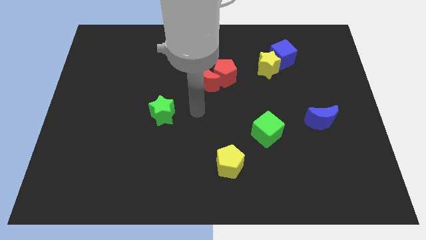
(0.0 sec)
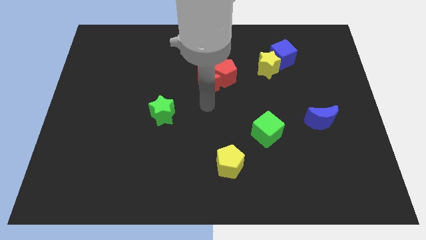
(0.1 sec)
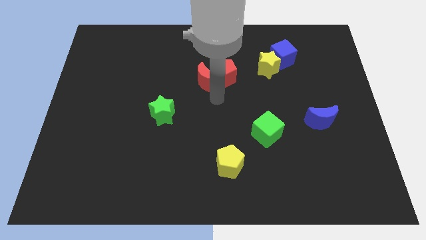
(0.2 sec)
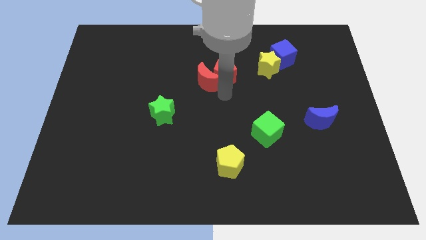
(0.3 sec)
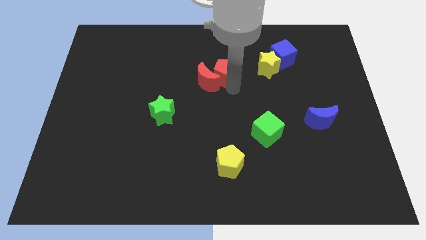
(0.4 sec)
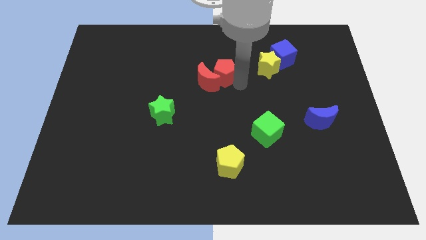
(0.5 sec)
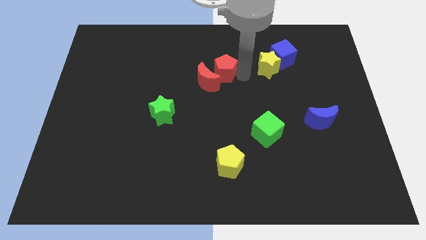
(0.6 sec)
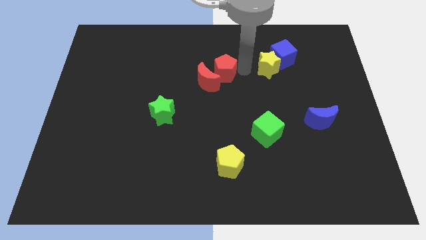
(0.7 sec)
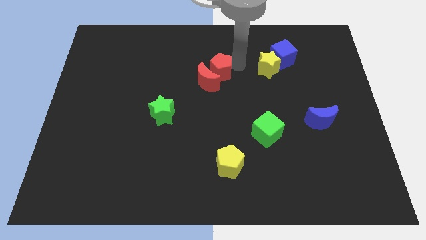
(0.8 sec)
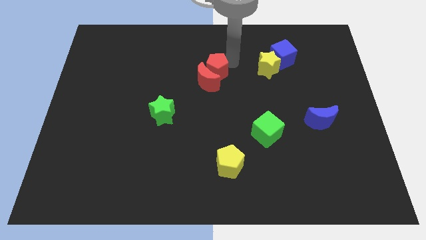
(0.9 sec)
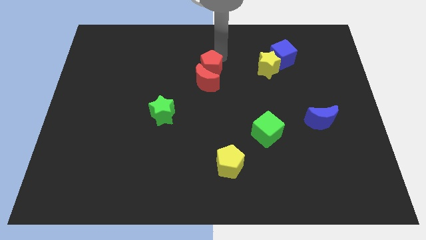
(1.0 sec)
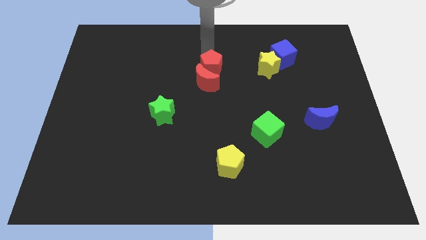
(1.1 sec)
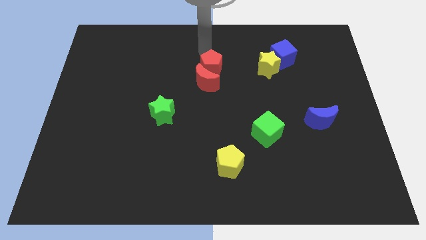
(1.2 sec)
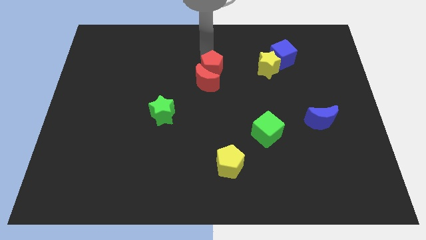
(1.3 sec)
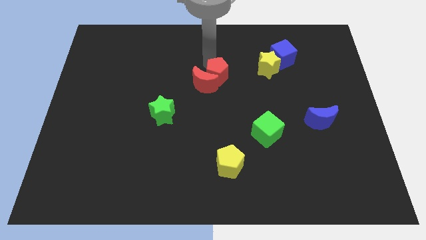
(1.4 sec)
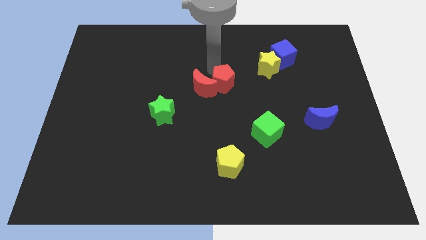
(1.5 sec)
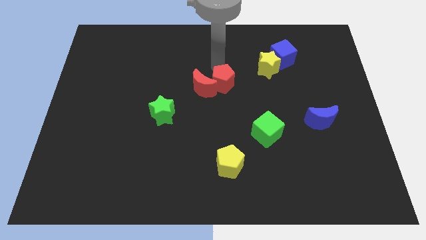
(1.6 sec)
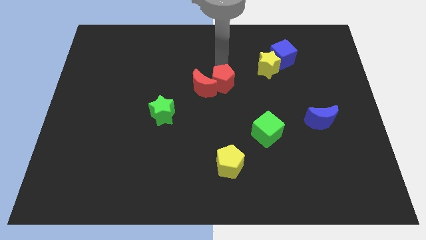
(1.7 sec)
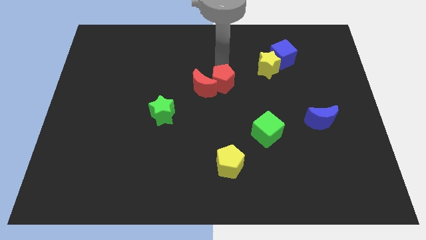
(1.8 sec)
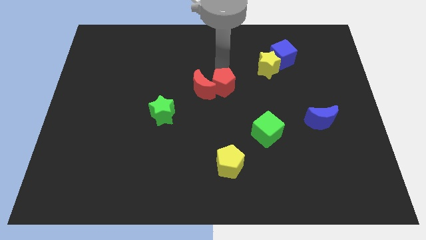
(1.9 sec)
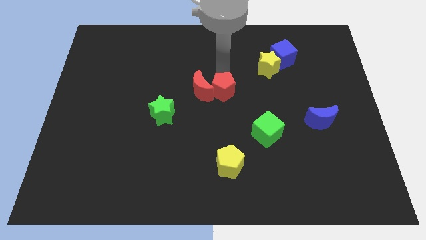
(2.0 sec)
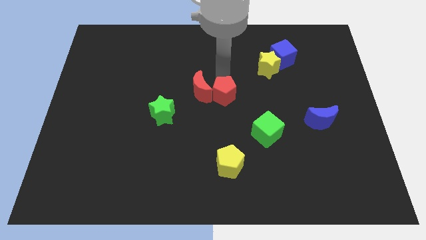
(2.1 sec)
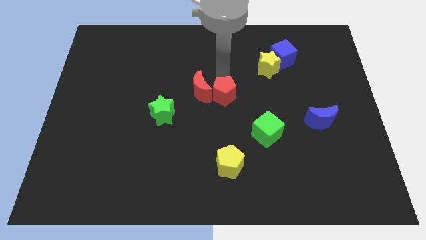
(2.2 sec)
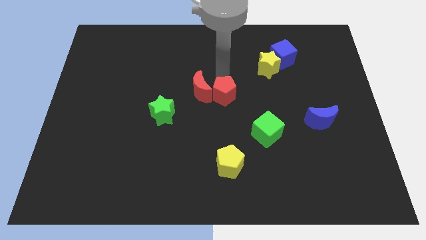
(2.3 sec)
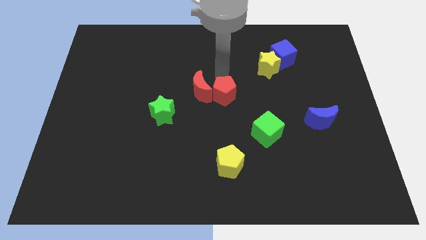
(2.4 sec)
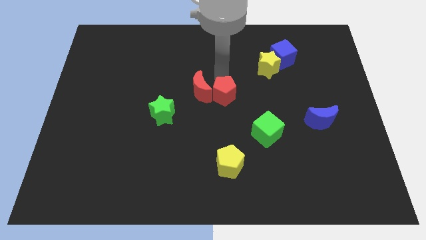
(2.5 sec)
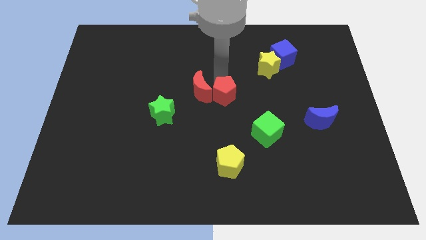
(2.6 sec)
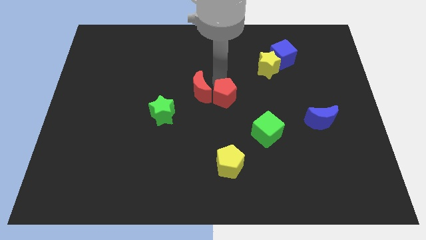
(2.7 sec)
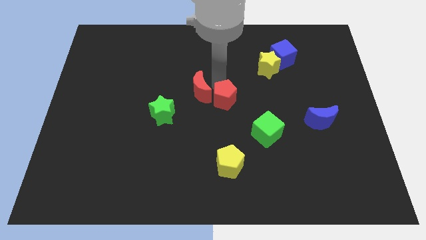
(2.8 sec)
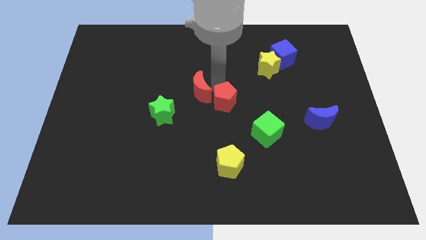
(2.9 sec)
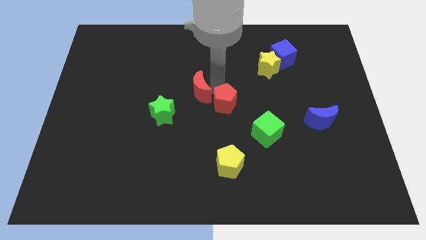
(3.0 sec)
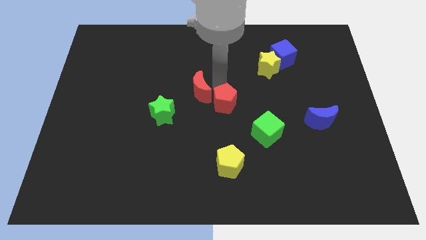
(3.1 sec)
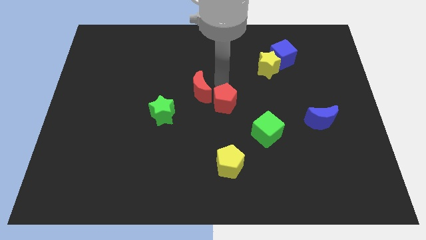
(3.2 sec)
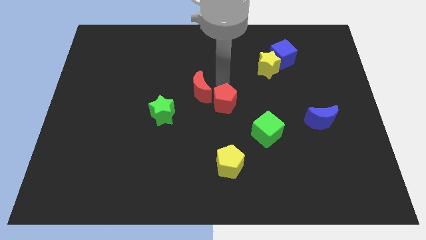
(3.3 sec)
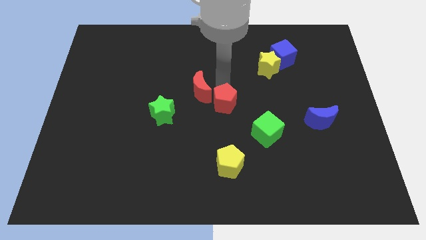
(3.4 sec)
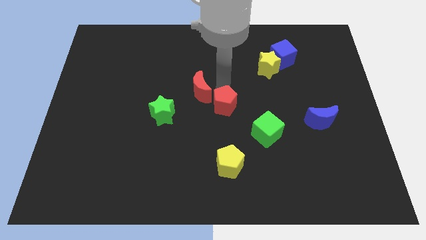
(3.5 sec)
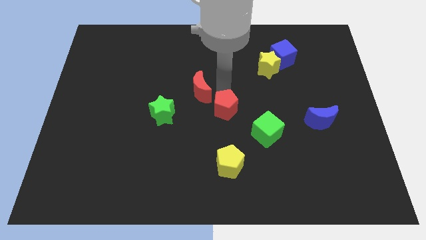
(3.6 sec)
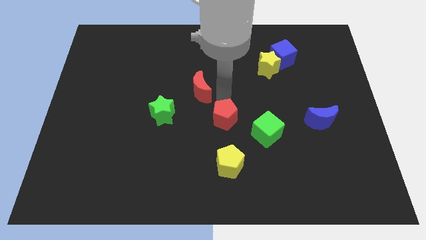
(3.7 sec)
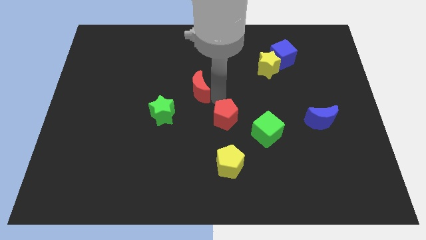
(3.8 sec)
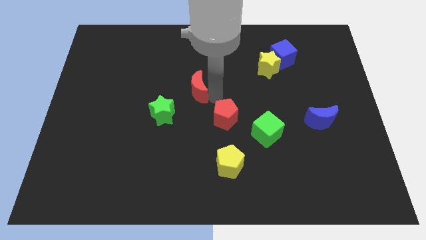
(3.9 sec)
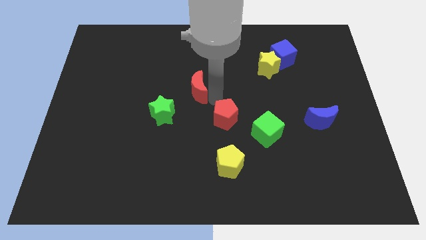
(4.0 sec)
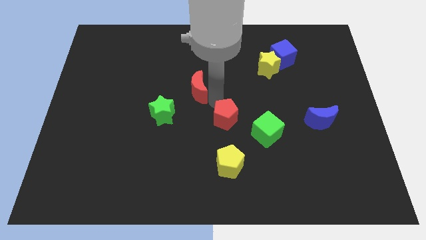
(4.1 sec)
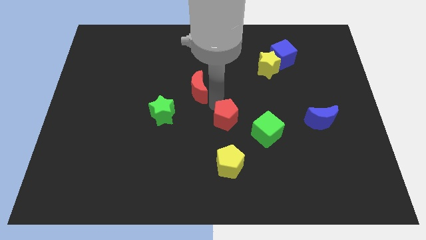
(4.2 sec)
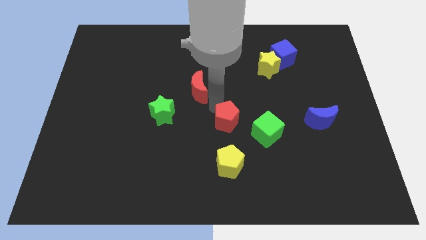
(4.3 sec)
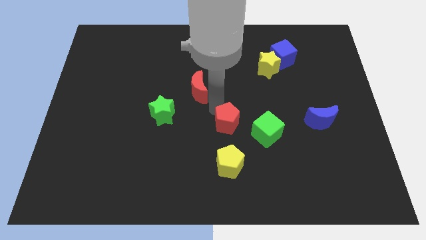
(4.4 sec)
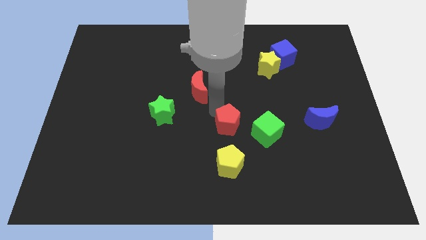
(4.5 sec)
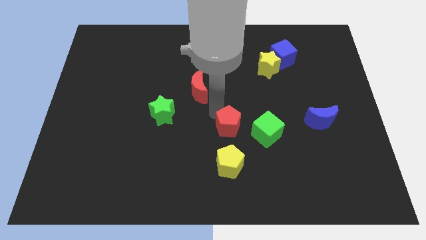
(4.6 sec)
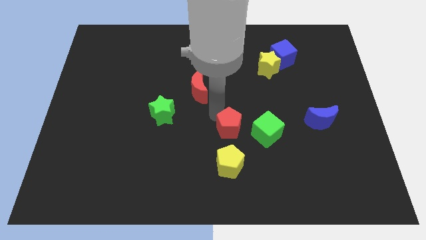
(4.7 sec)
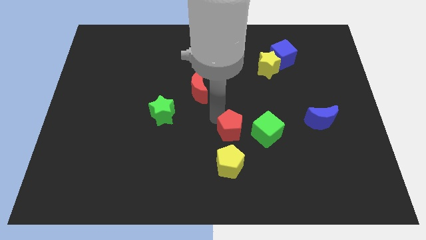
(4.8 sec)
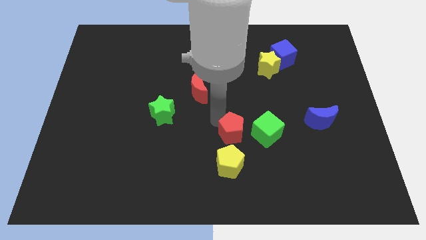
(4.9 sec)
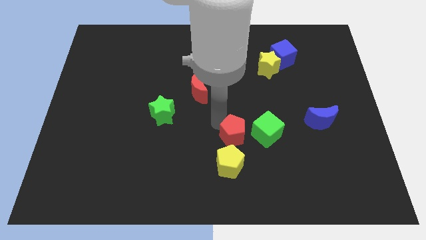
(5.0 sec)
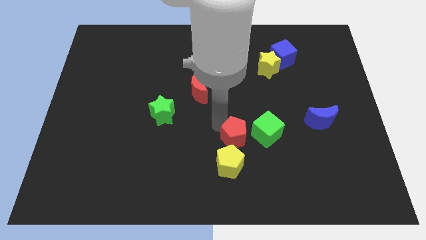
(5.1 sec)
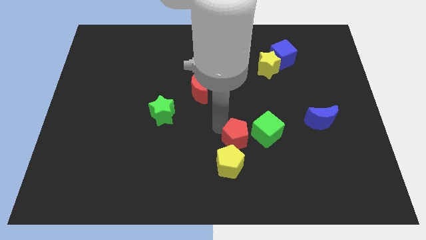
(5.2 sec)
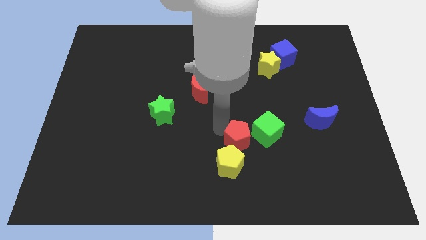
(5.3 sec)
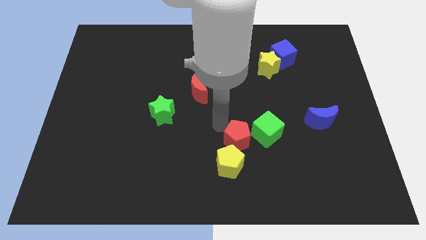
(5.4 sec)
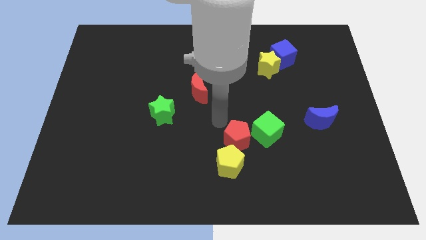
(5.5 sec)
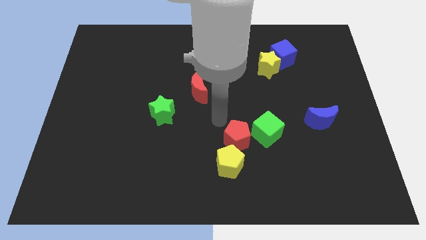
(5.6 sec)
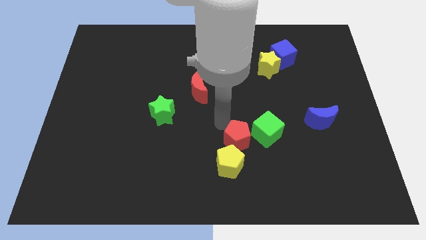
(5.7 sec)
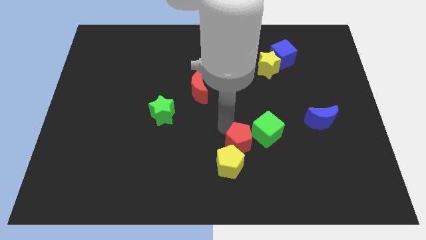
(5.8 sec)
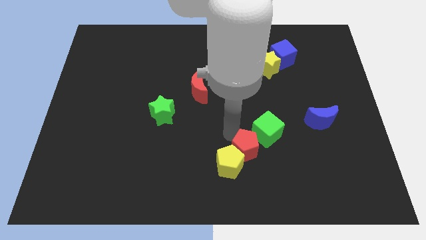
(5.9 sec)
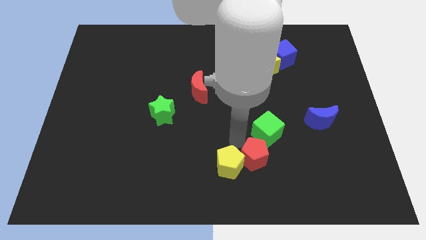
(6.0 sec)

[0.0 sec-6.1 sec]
slide the red pentagon to the bottom side of the green cube

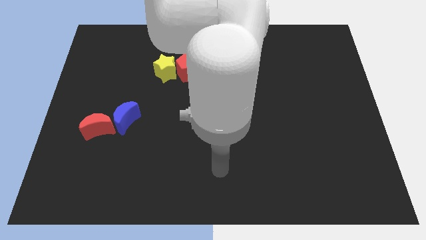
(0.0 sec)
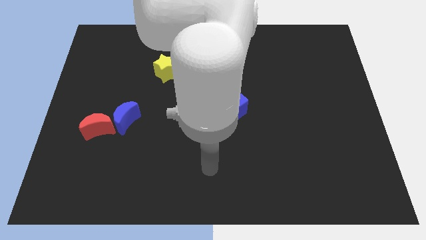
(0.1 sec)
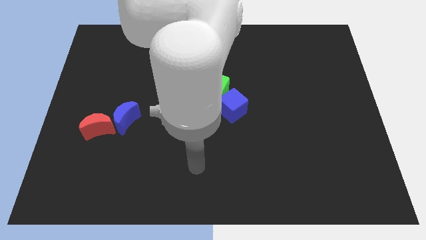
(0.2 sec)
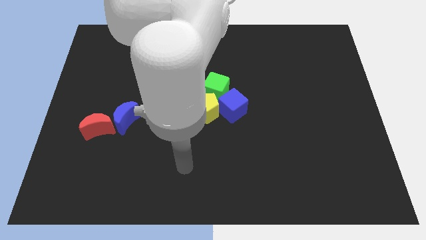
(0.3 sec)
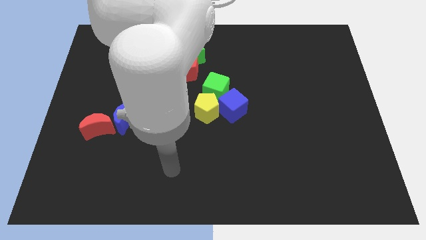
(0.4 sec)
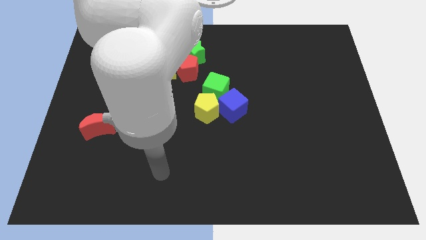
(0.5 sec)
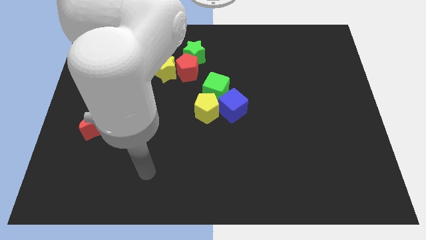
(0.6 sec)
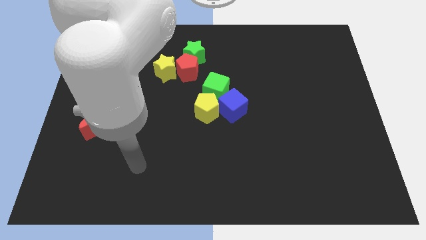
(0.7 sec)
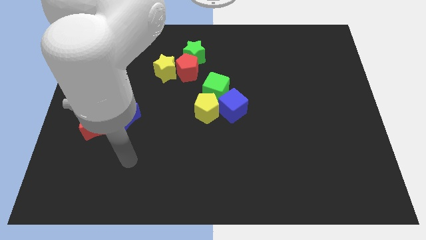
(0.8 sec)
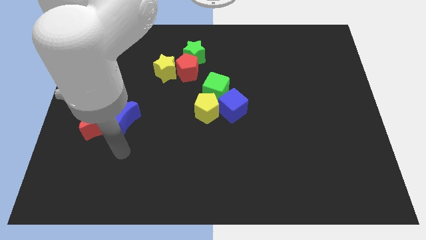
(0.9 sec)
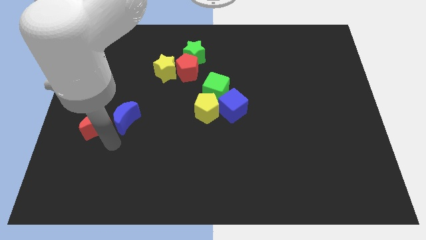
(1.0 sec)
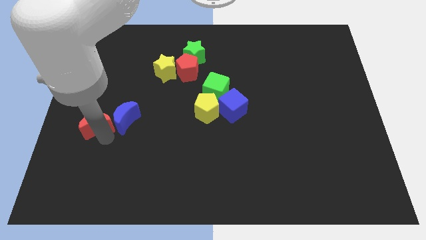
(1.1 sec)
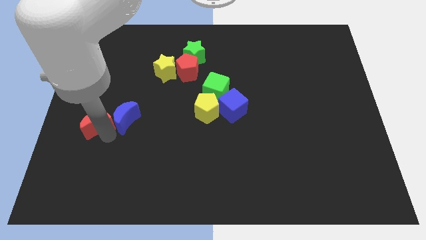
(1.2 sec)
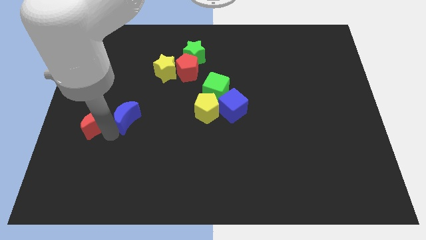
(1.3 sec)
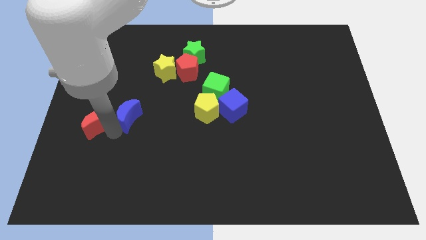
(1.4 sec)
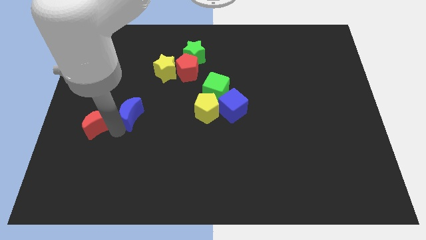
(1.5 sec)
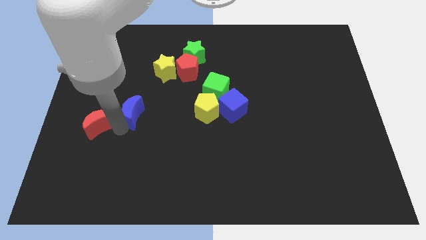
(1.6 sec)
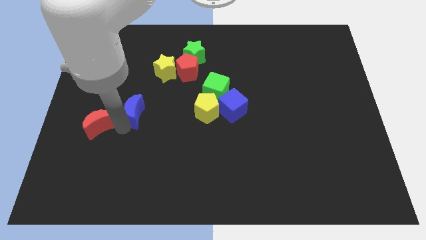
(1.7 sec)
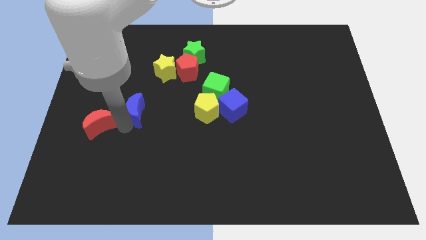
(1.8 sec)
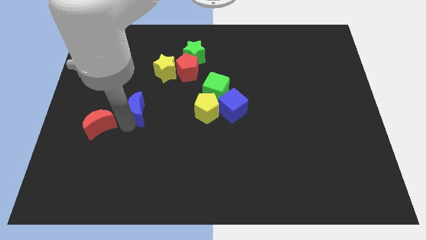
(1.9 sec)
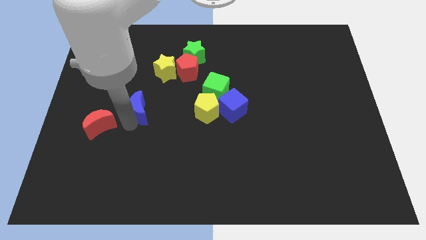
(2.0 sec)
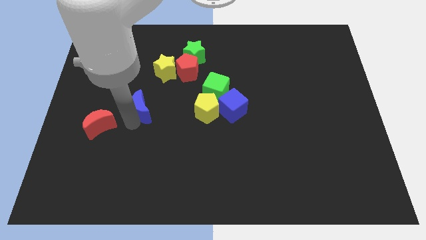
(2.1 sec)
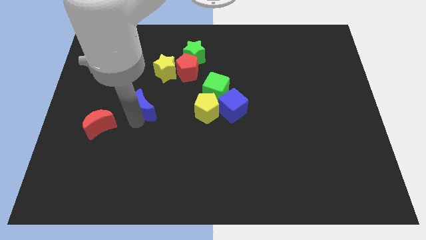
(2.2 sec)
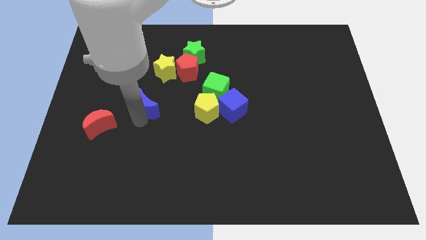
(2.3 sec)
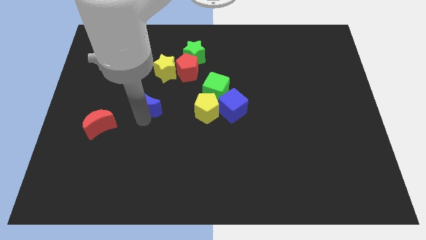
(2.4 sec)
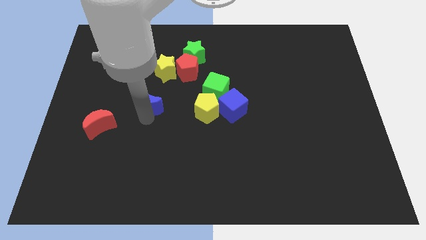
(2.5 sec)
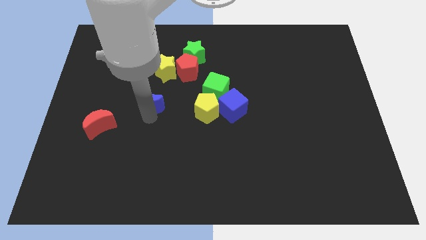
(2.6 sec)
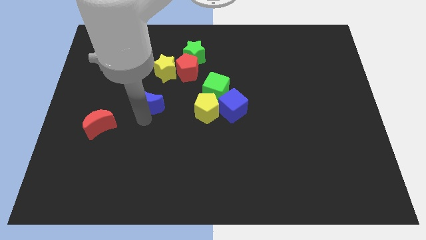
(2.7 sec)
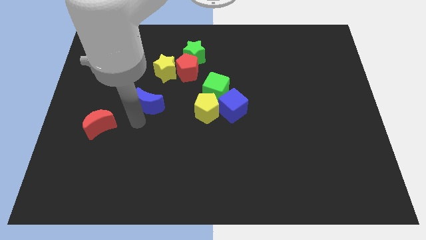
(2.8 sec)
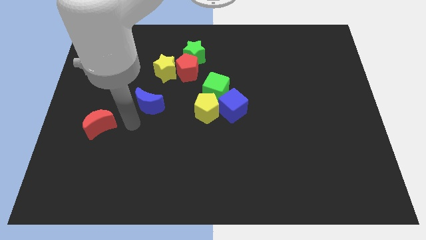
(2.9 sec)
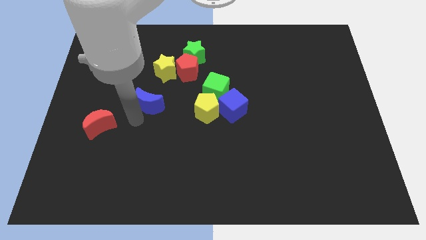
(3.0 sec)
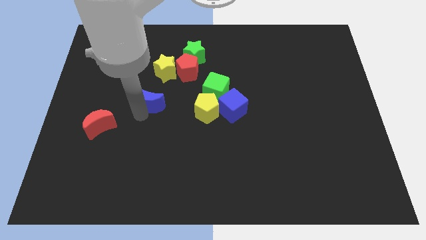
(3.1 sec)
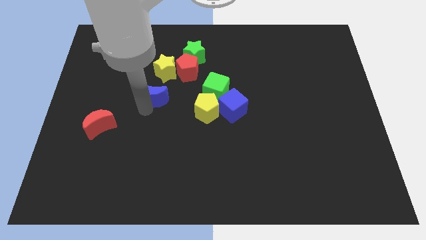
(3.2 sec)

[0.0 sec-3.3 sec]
put the blue moon to the bottom left of the red pentagon
